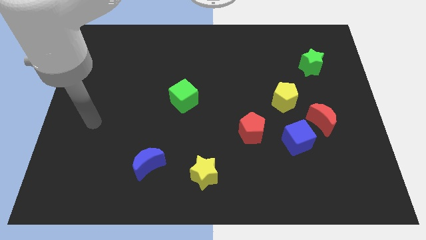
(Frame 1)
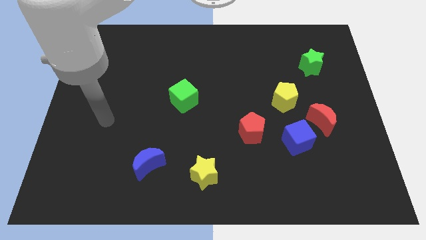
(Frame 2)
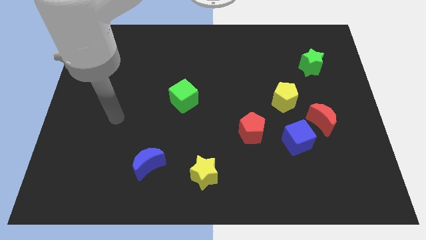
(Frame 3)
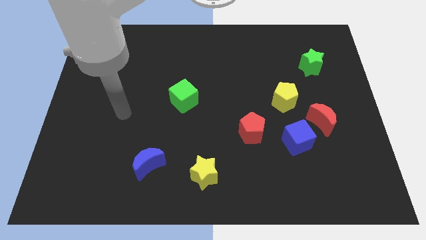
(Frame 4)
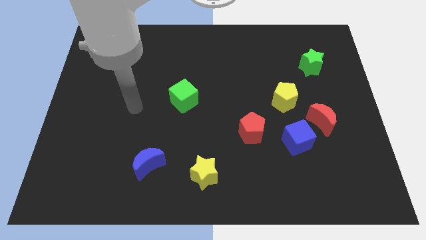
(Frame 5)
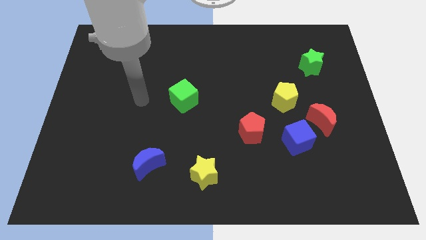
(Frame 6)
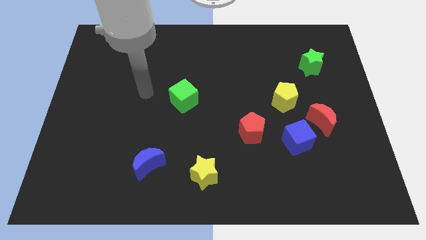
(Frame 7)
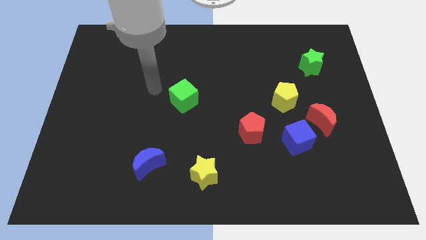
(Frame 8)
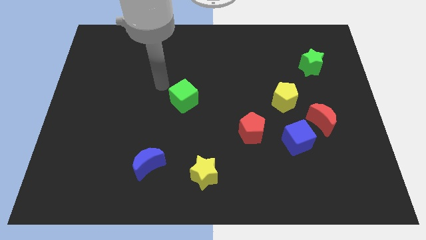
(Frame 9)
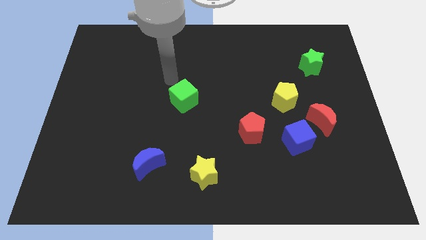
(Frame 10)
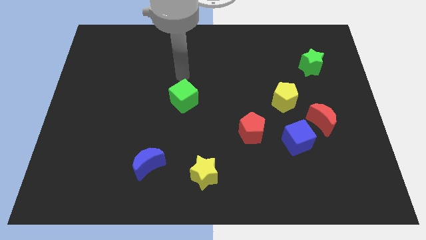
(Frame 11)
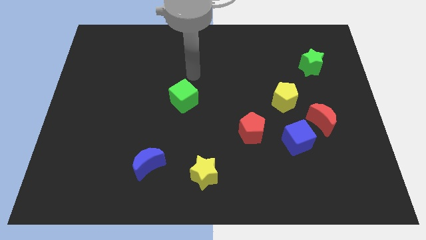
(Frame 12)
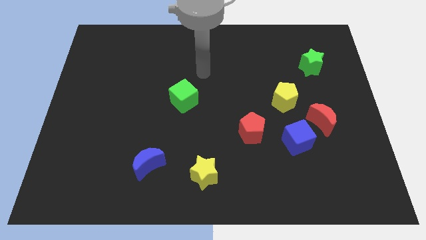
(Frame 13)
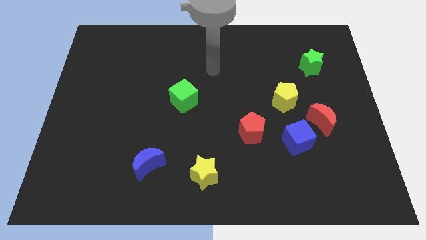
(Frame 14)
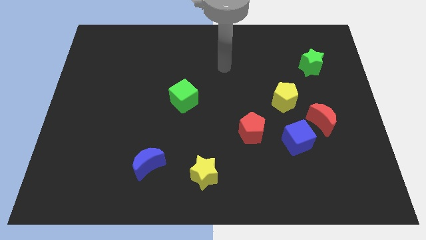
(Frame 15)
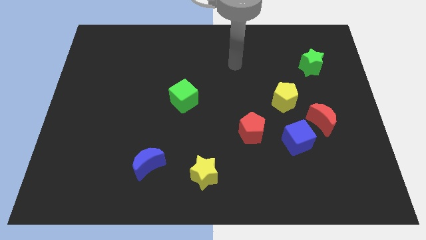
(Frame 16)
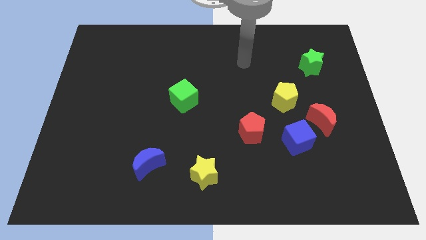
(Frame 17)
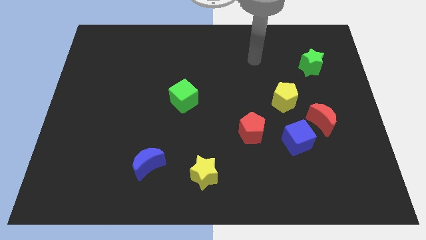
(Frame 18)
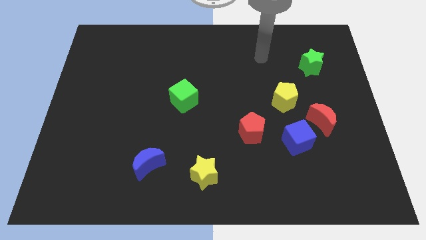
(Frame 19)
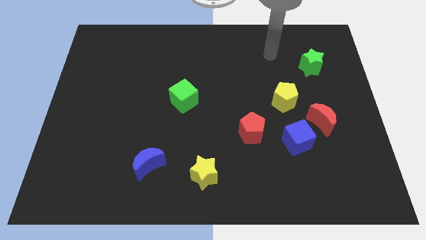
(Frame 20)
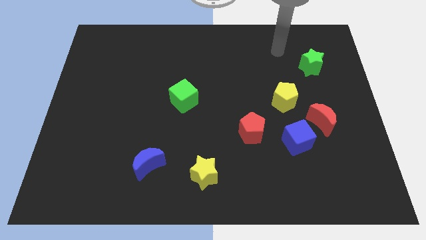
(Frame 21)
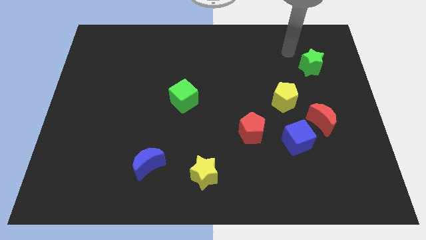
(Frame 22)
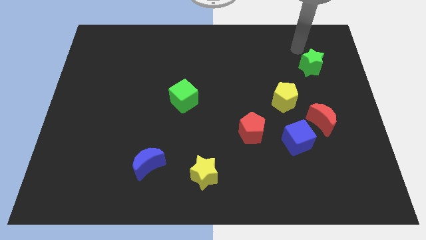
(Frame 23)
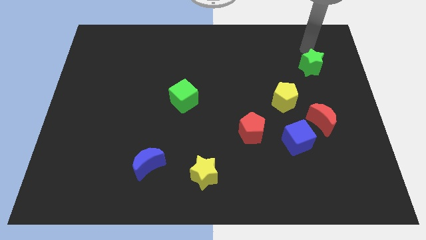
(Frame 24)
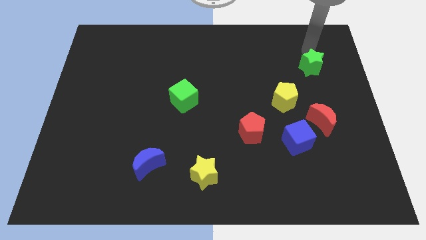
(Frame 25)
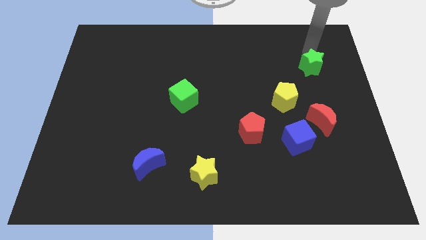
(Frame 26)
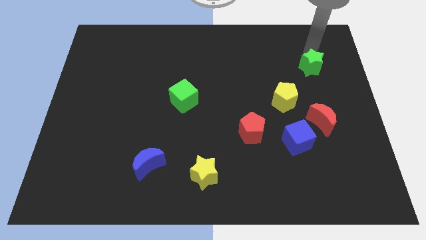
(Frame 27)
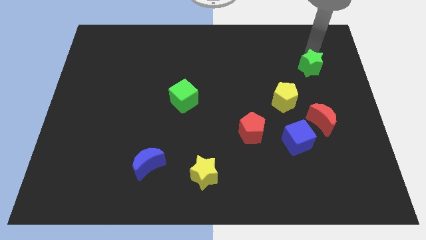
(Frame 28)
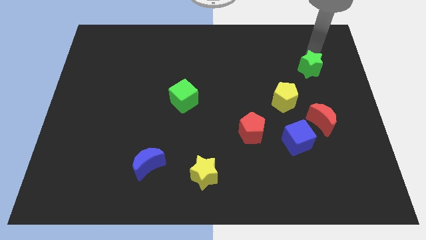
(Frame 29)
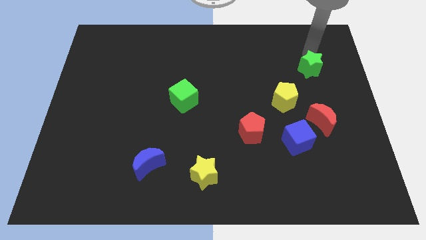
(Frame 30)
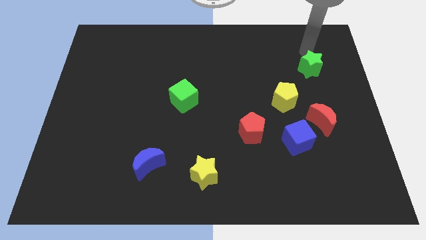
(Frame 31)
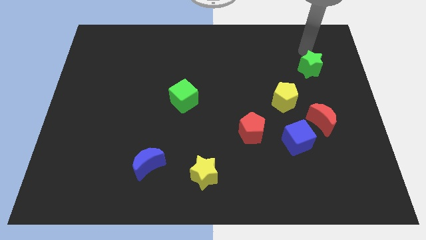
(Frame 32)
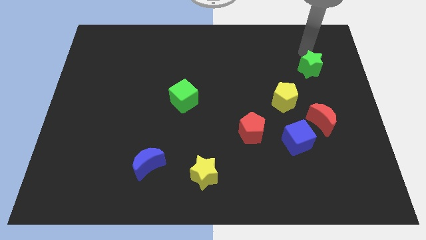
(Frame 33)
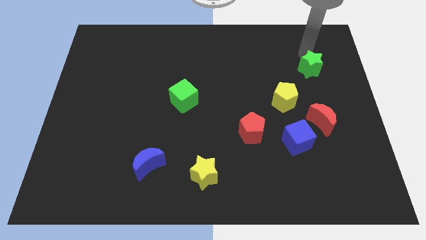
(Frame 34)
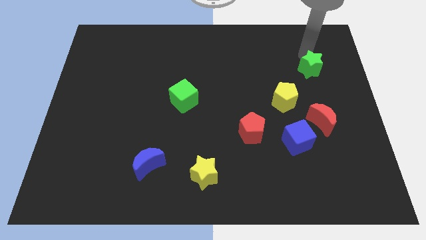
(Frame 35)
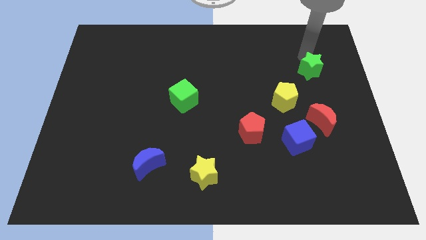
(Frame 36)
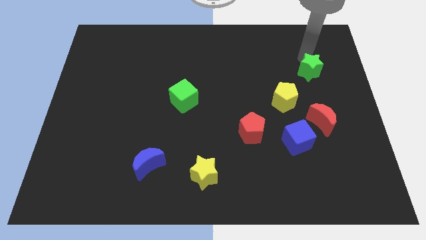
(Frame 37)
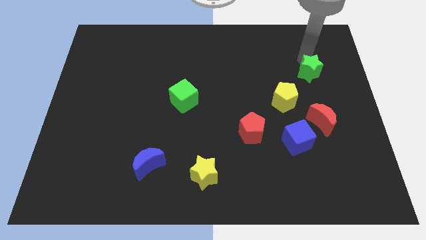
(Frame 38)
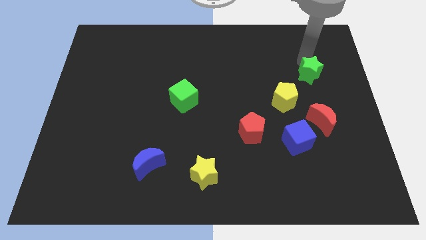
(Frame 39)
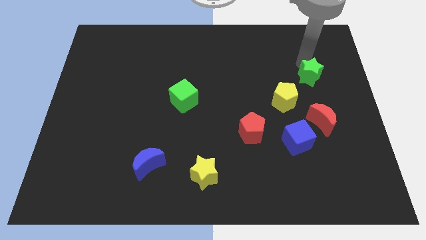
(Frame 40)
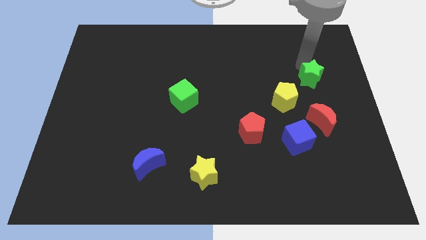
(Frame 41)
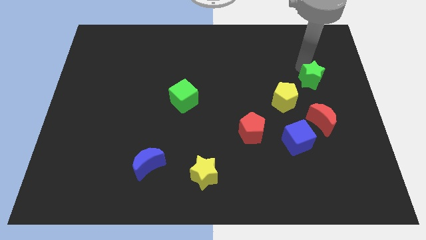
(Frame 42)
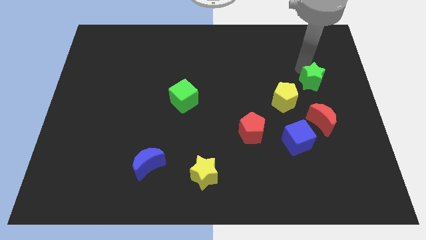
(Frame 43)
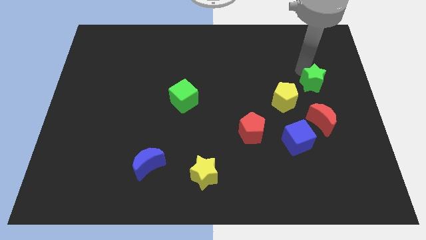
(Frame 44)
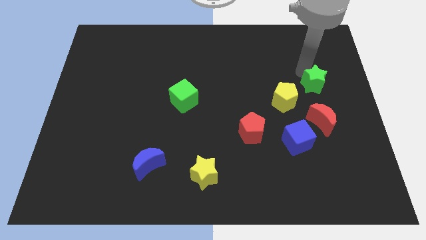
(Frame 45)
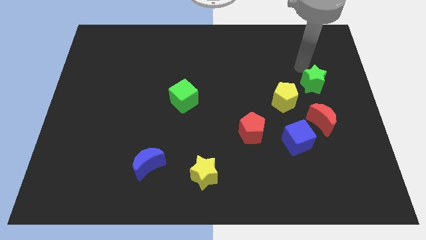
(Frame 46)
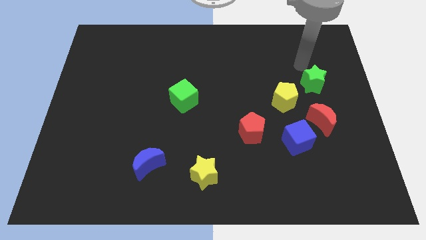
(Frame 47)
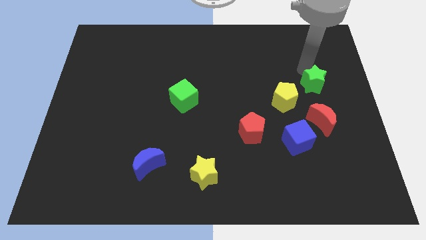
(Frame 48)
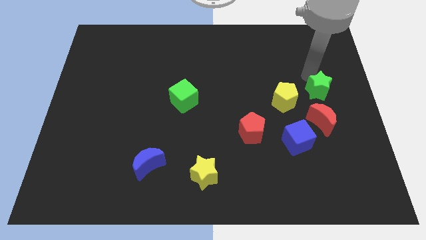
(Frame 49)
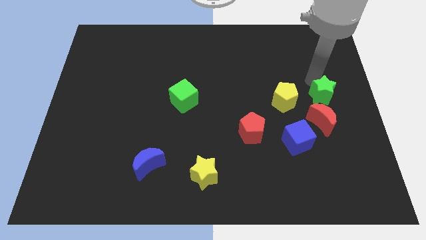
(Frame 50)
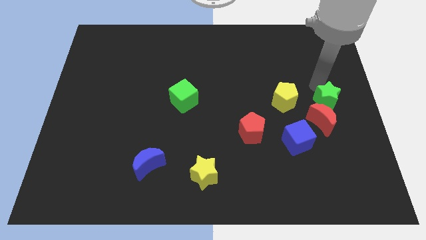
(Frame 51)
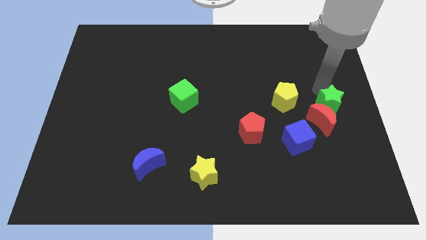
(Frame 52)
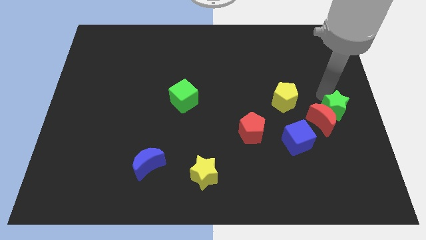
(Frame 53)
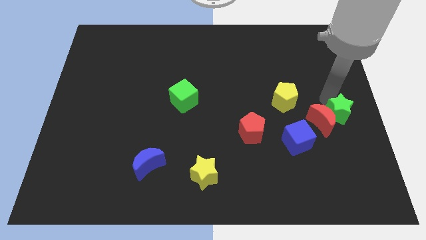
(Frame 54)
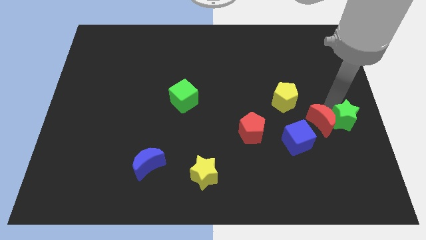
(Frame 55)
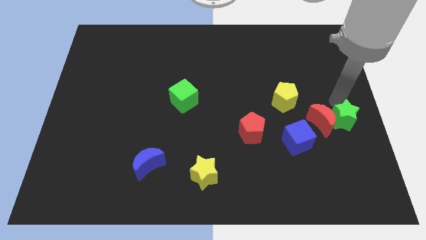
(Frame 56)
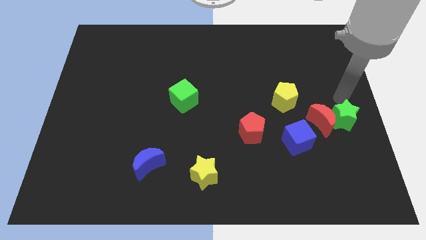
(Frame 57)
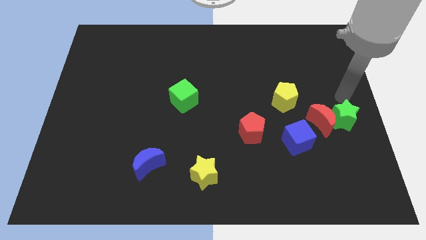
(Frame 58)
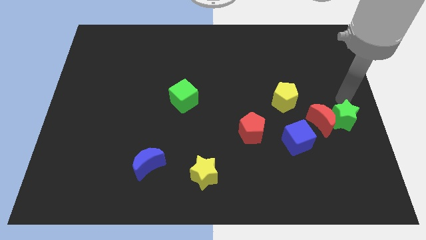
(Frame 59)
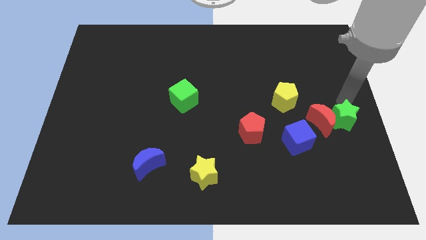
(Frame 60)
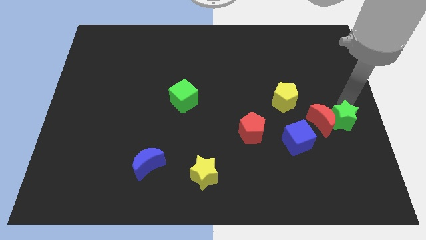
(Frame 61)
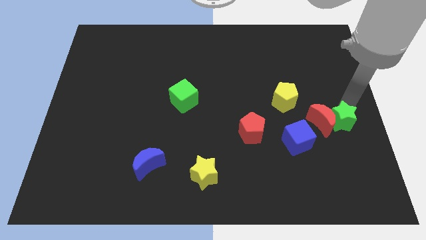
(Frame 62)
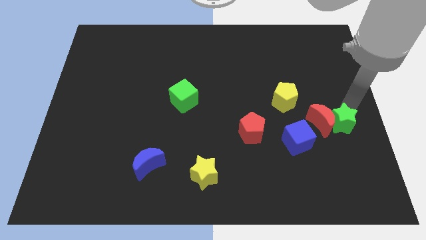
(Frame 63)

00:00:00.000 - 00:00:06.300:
push the green star to the right side of the blue cube
